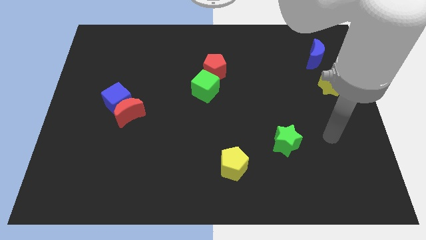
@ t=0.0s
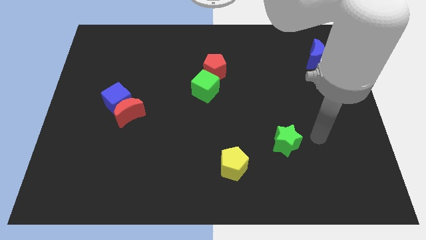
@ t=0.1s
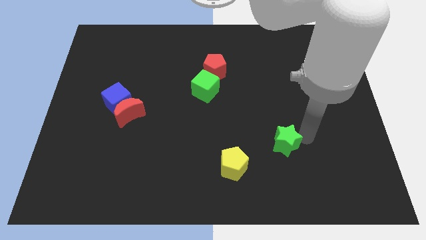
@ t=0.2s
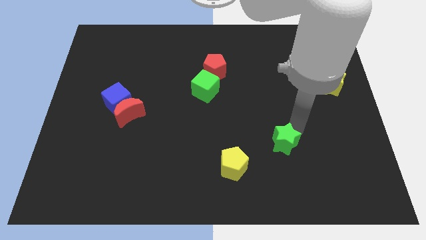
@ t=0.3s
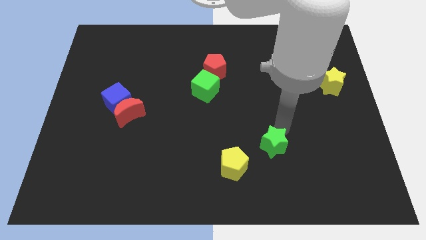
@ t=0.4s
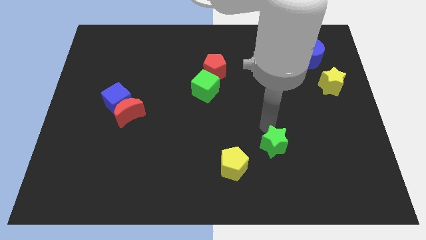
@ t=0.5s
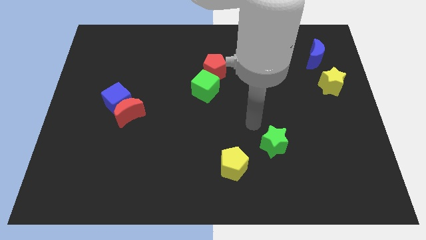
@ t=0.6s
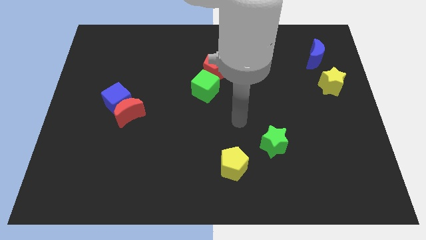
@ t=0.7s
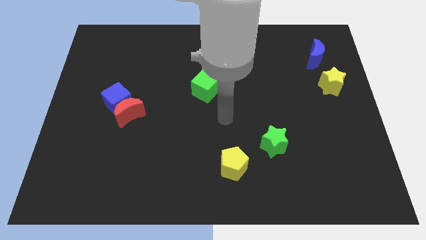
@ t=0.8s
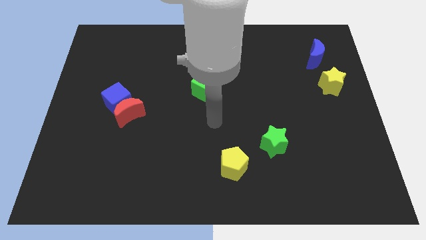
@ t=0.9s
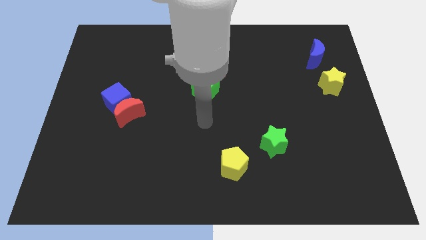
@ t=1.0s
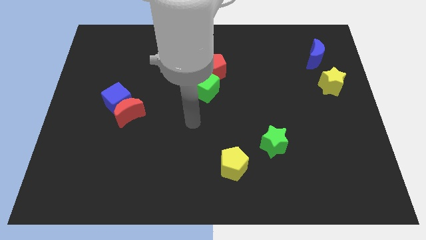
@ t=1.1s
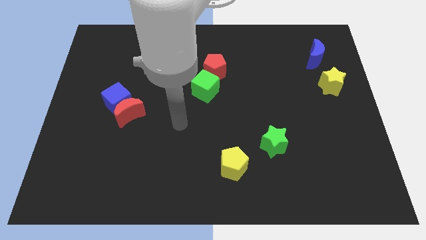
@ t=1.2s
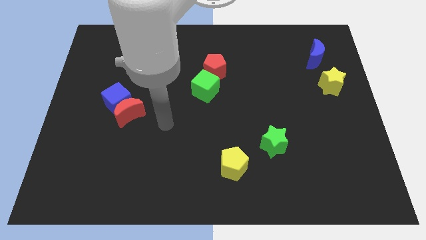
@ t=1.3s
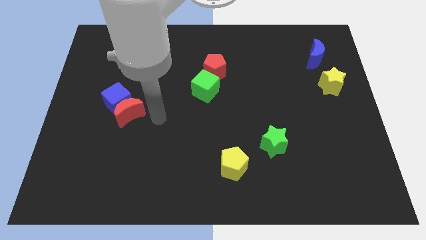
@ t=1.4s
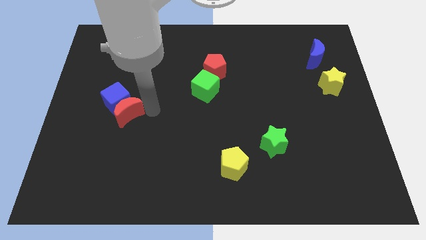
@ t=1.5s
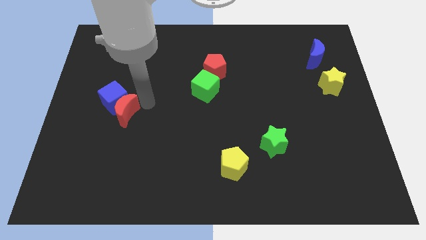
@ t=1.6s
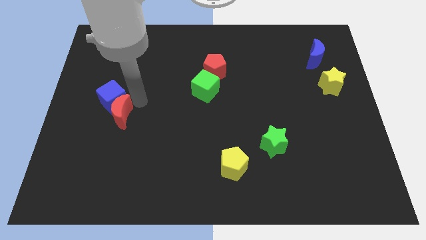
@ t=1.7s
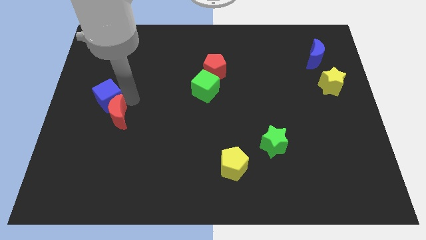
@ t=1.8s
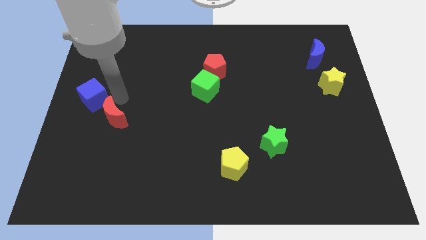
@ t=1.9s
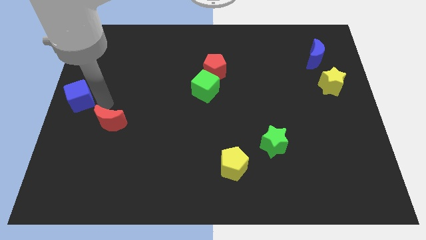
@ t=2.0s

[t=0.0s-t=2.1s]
pull the red moon apart from the blue cube

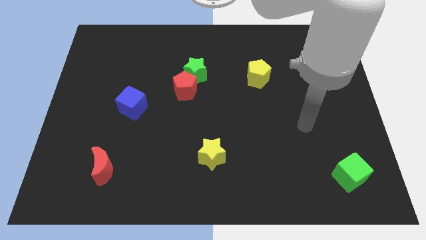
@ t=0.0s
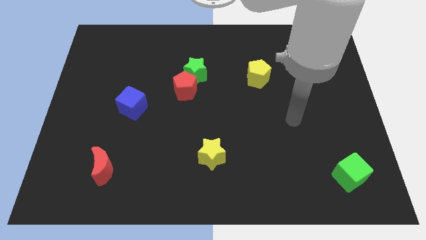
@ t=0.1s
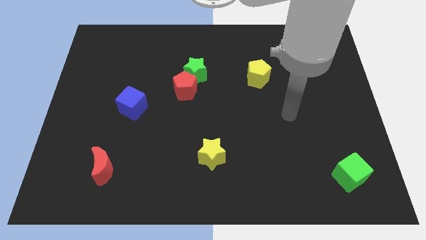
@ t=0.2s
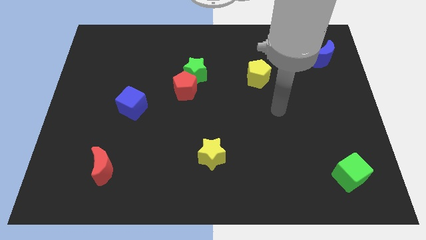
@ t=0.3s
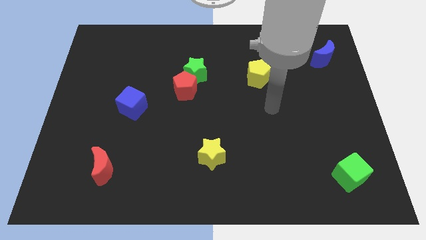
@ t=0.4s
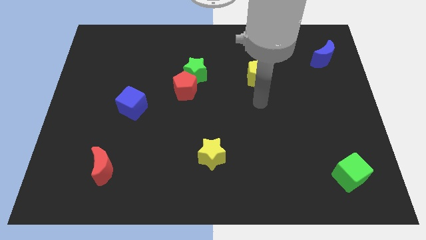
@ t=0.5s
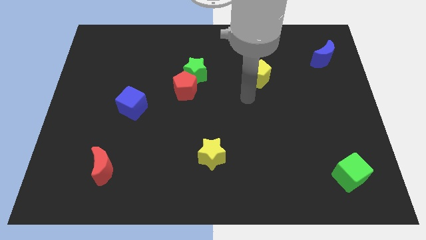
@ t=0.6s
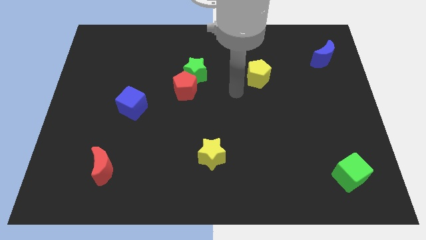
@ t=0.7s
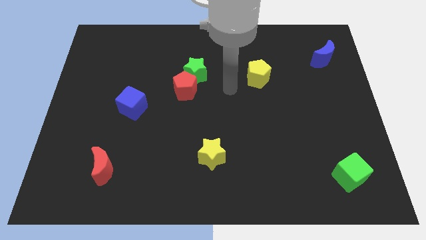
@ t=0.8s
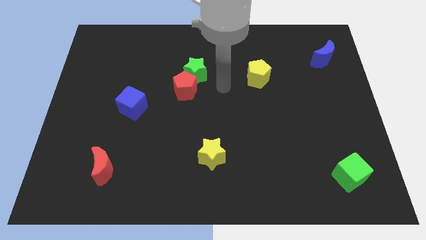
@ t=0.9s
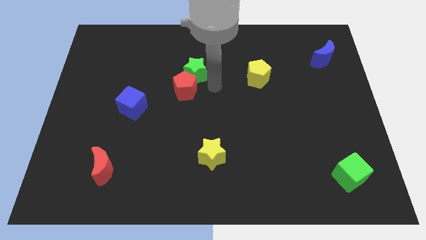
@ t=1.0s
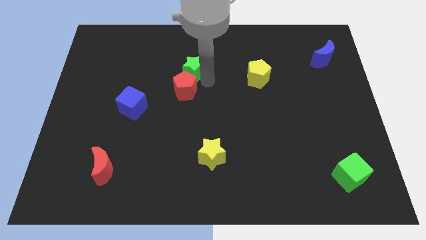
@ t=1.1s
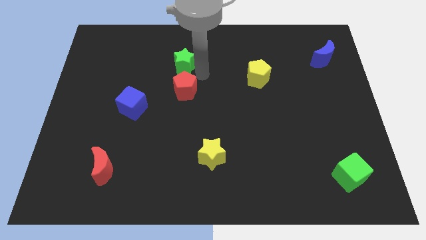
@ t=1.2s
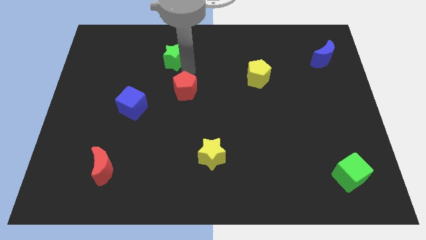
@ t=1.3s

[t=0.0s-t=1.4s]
separate the red pentagon from the green star

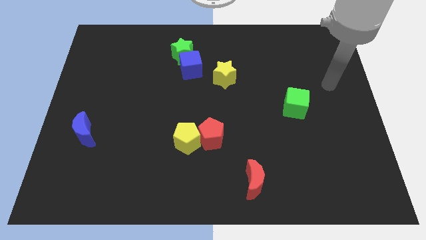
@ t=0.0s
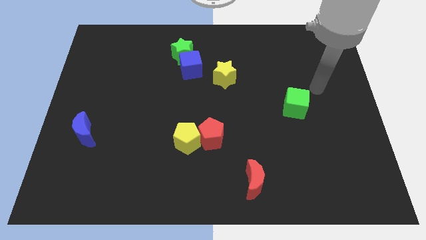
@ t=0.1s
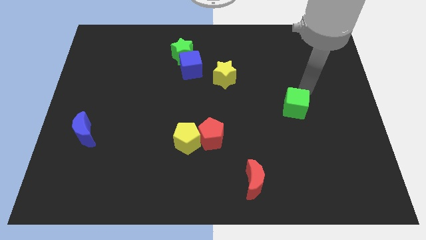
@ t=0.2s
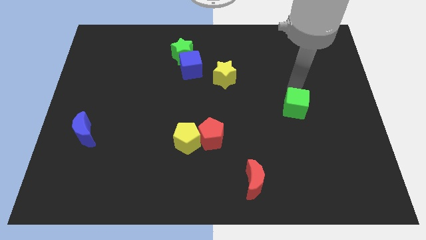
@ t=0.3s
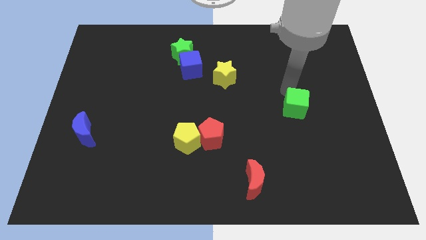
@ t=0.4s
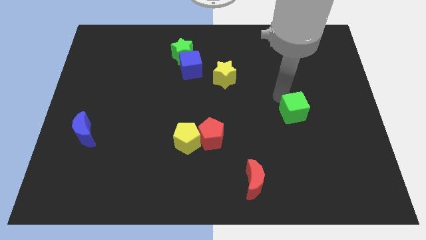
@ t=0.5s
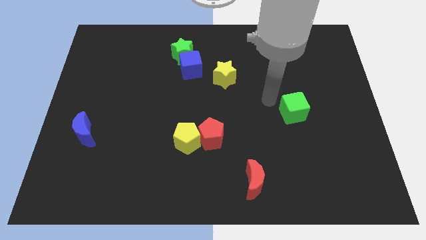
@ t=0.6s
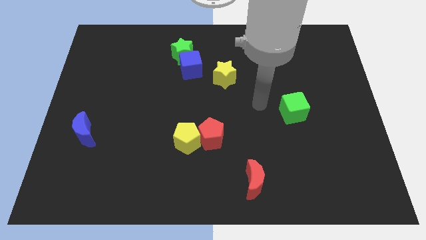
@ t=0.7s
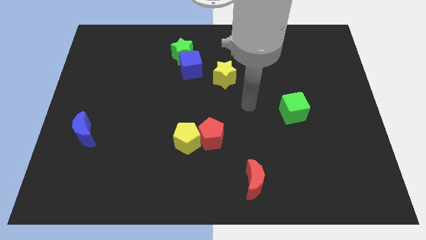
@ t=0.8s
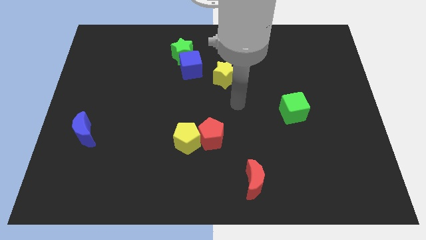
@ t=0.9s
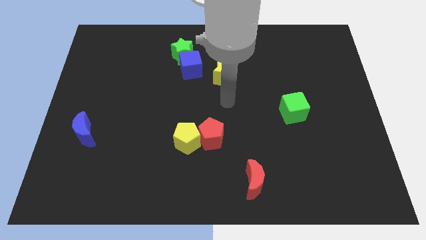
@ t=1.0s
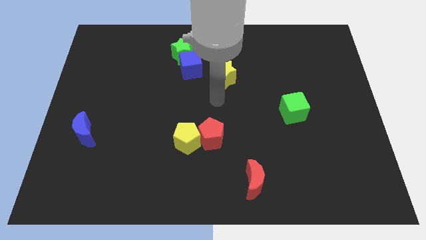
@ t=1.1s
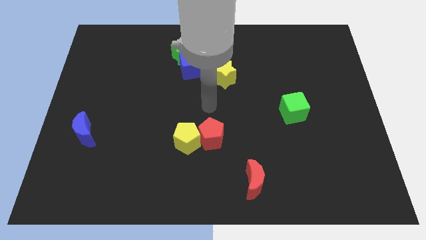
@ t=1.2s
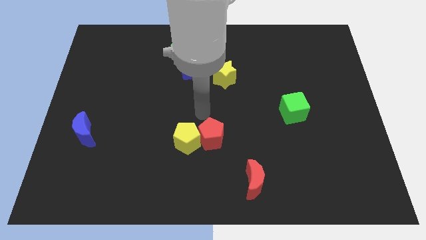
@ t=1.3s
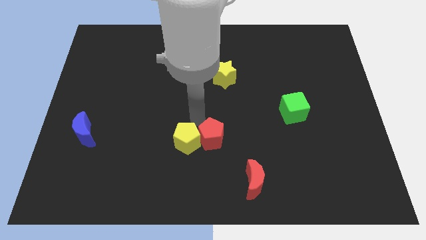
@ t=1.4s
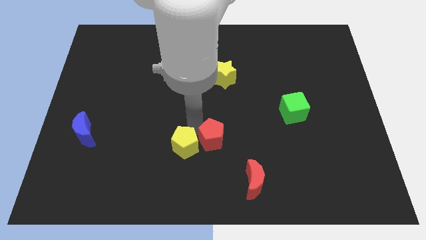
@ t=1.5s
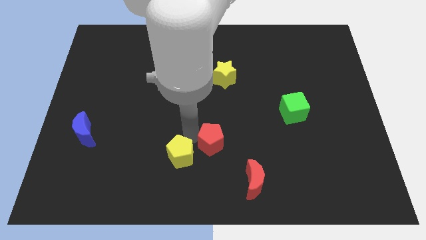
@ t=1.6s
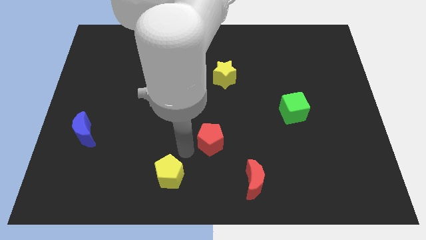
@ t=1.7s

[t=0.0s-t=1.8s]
pull the red pentagon apart from the yellow pentagon

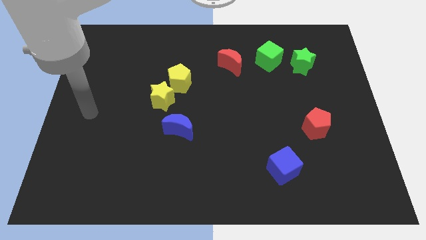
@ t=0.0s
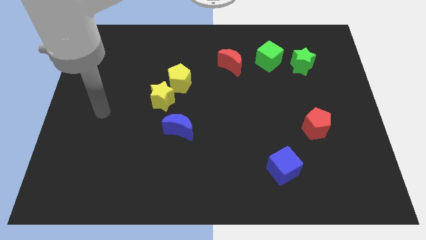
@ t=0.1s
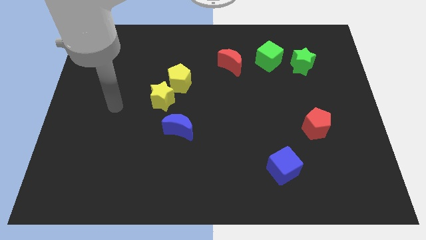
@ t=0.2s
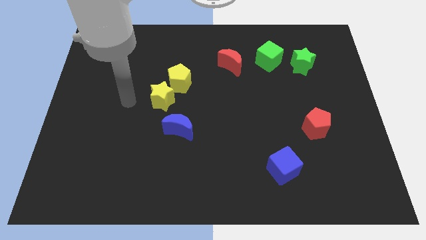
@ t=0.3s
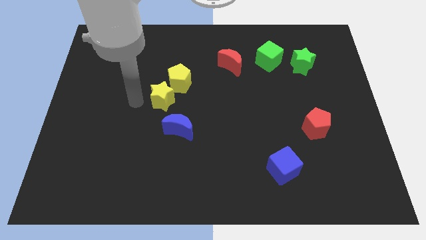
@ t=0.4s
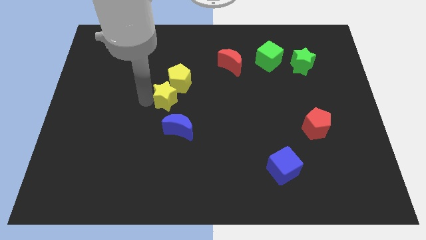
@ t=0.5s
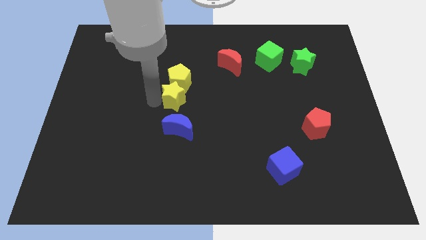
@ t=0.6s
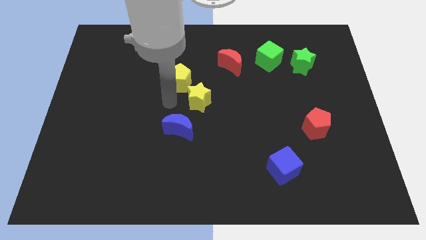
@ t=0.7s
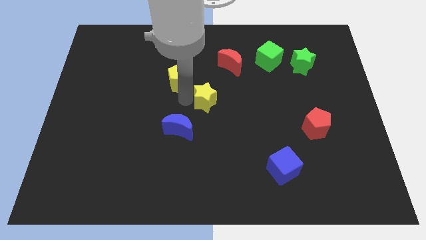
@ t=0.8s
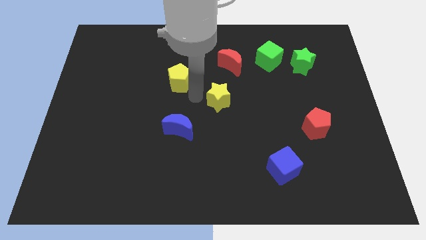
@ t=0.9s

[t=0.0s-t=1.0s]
move the yellow pentagon away from the yellow star

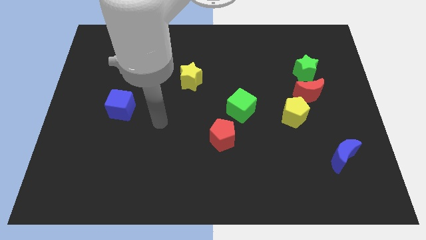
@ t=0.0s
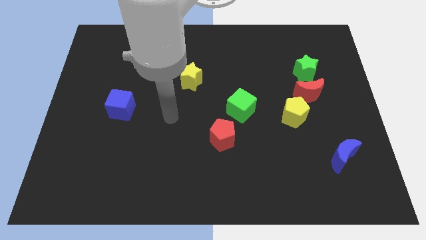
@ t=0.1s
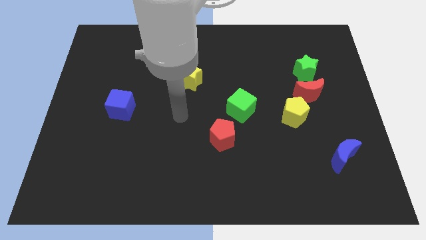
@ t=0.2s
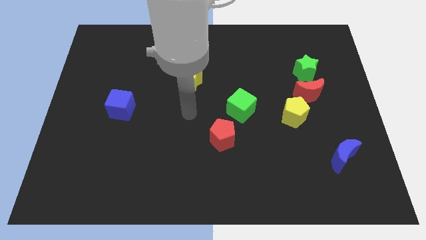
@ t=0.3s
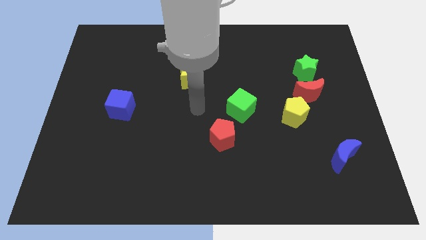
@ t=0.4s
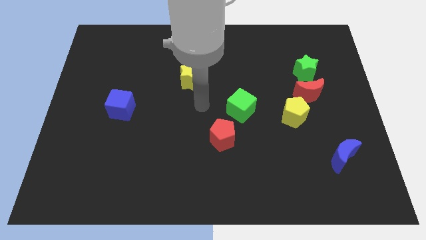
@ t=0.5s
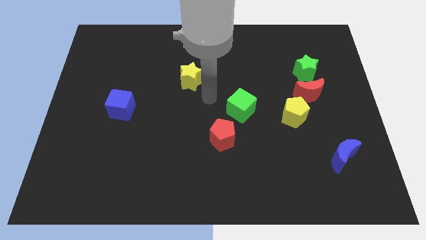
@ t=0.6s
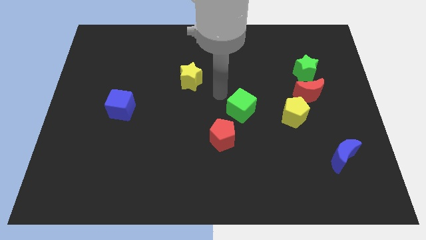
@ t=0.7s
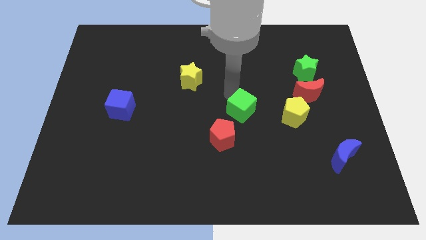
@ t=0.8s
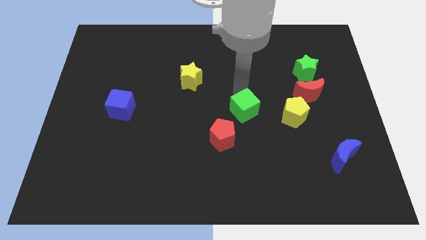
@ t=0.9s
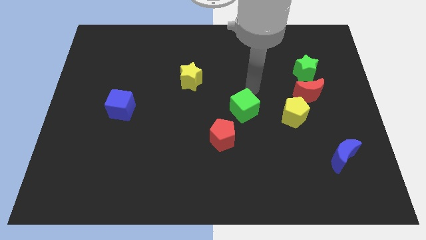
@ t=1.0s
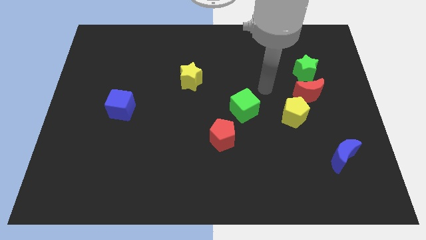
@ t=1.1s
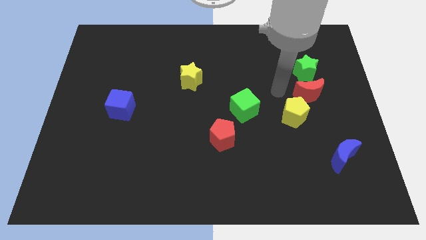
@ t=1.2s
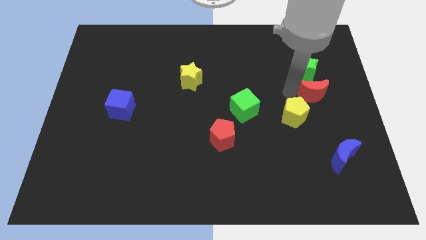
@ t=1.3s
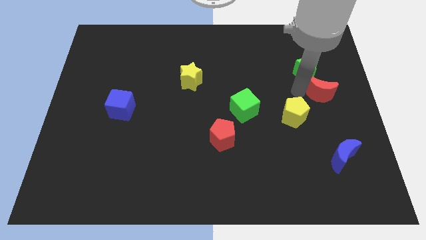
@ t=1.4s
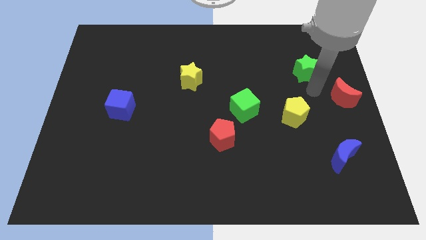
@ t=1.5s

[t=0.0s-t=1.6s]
separate the green star from the red moon

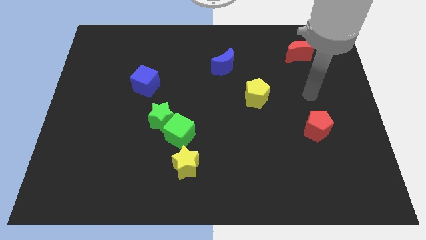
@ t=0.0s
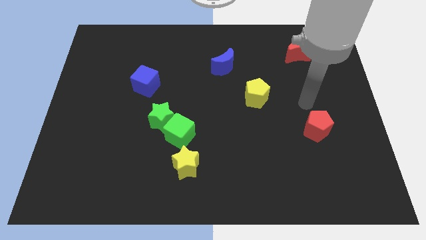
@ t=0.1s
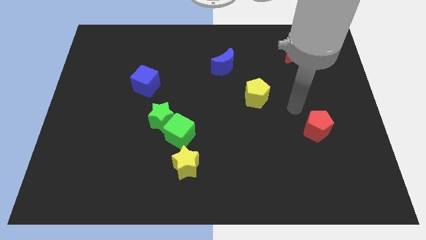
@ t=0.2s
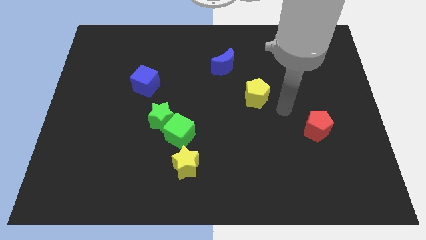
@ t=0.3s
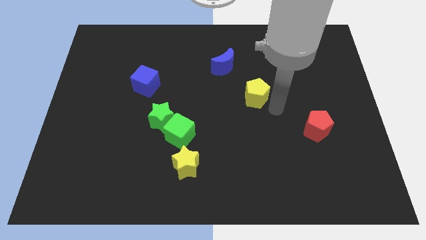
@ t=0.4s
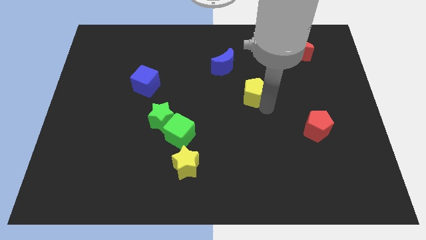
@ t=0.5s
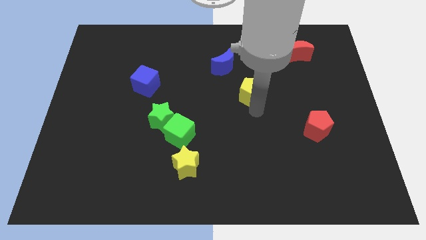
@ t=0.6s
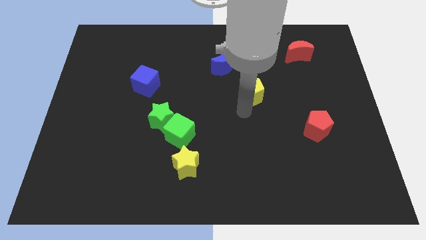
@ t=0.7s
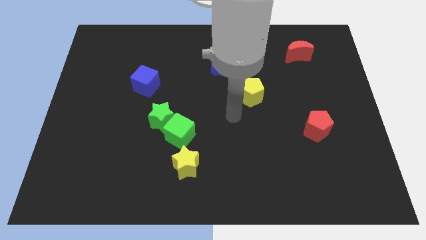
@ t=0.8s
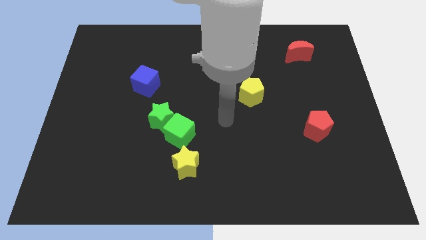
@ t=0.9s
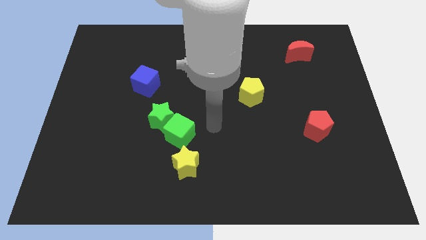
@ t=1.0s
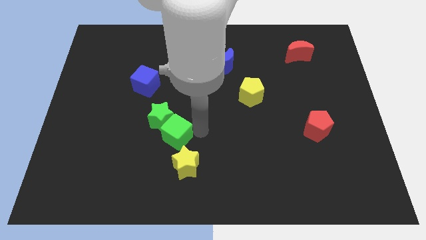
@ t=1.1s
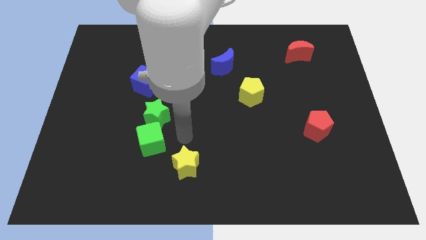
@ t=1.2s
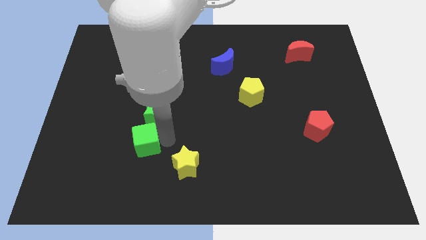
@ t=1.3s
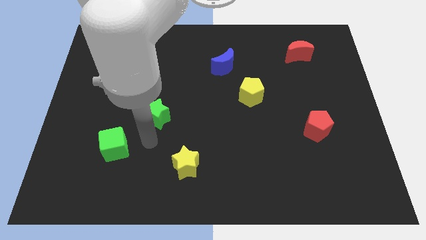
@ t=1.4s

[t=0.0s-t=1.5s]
move the green star away from the green cube
